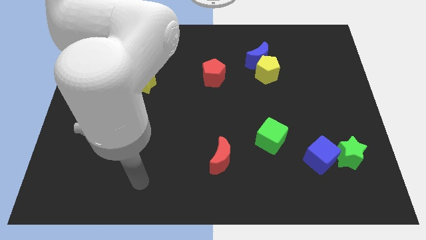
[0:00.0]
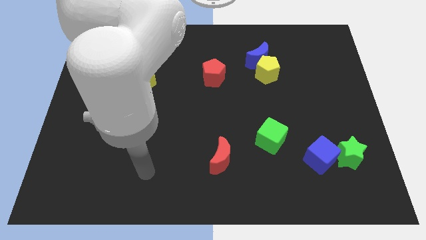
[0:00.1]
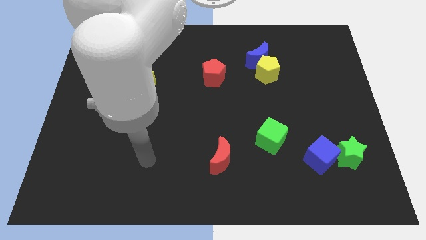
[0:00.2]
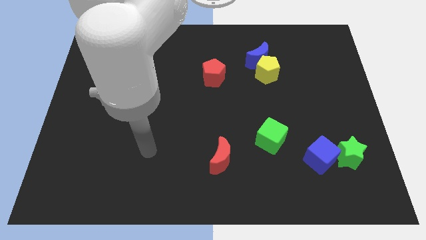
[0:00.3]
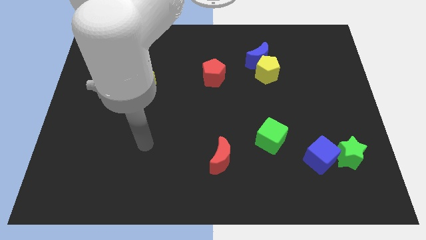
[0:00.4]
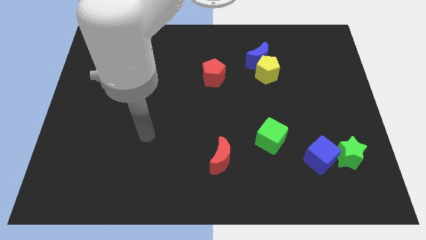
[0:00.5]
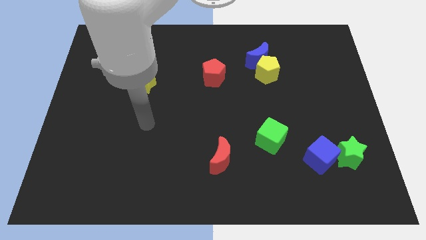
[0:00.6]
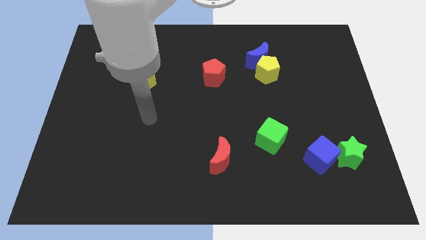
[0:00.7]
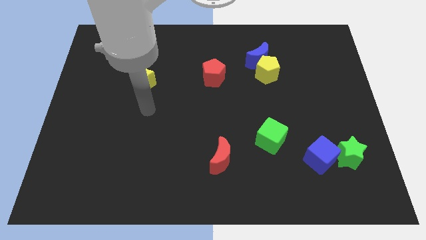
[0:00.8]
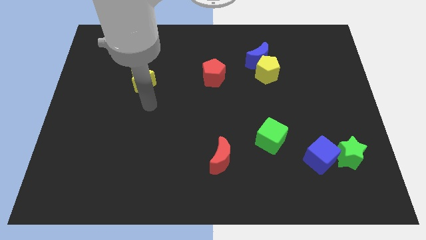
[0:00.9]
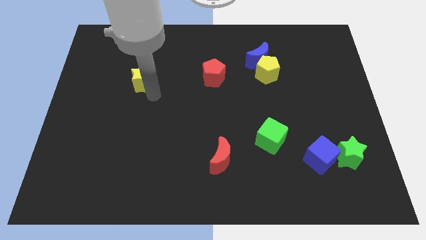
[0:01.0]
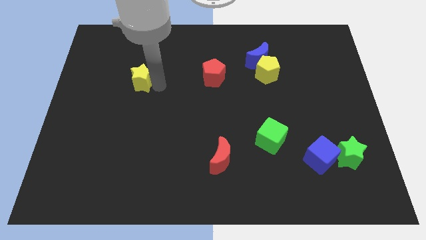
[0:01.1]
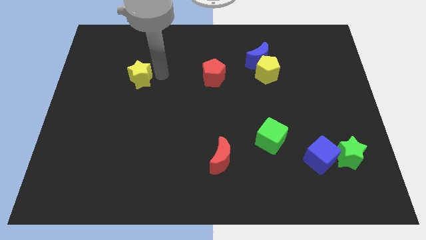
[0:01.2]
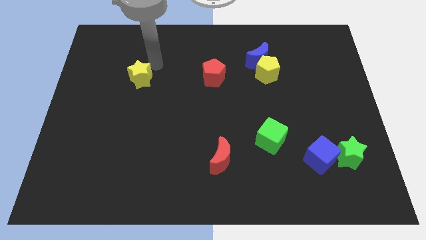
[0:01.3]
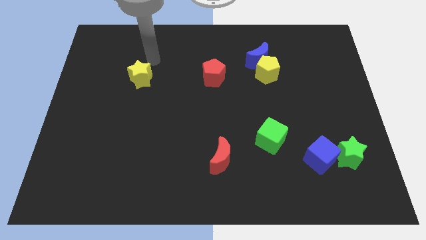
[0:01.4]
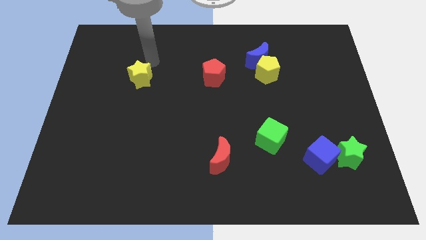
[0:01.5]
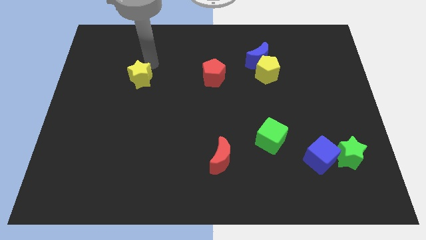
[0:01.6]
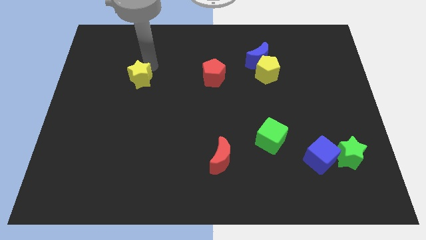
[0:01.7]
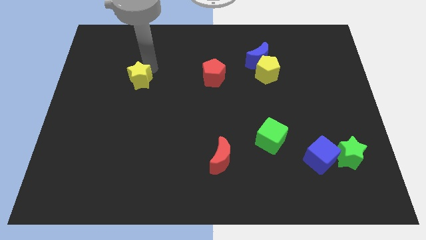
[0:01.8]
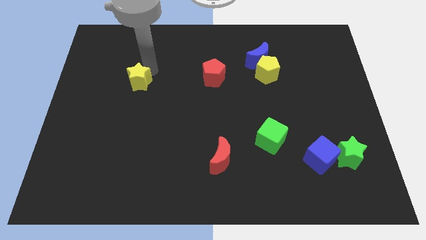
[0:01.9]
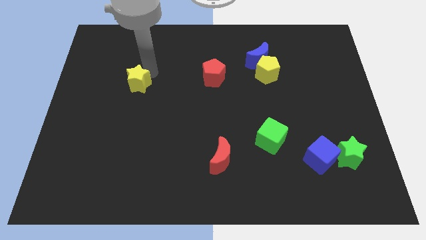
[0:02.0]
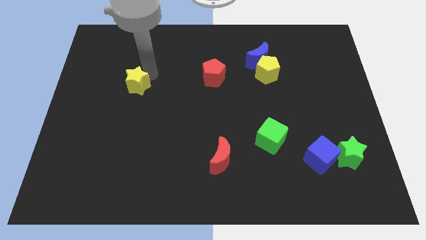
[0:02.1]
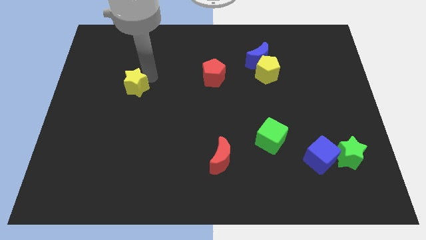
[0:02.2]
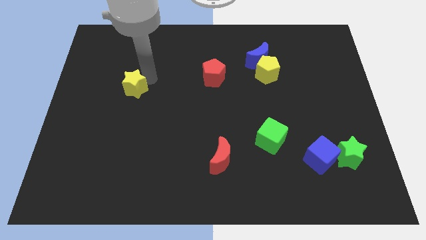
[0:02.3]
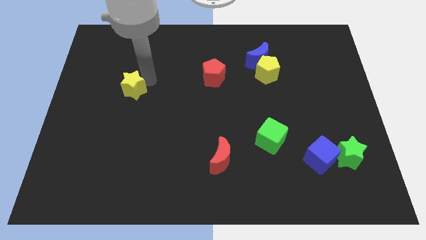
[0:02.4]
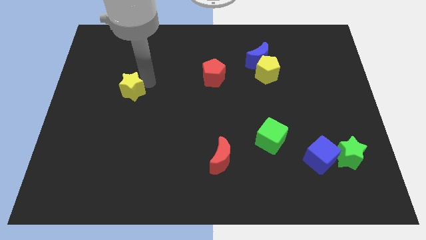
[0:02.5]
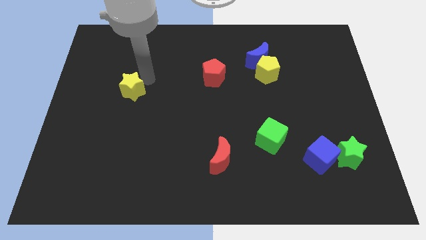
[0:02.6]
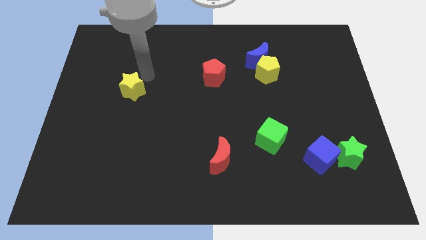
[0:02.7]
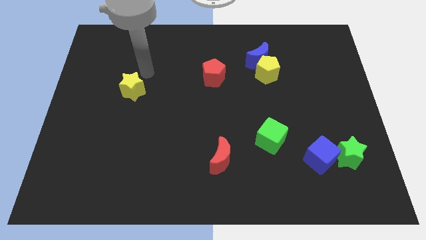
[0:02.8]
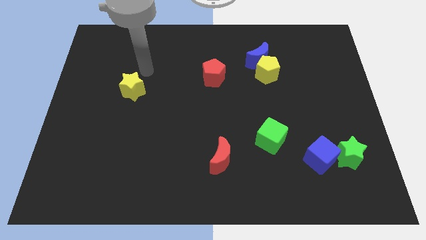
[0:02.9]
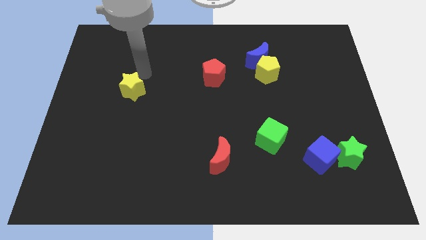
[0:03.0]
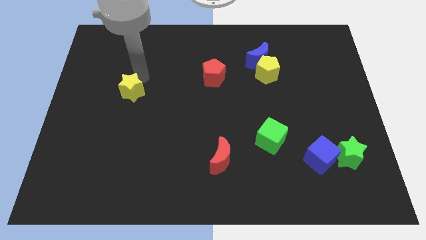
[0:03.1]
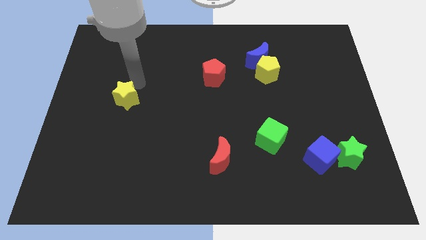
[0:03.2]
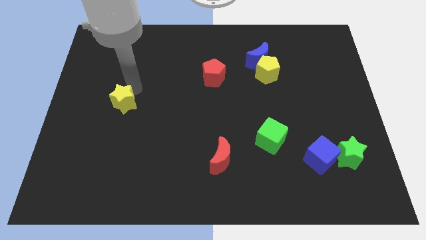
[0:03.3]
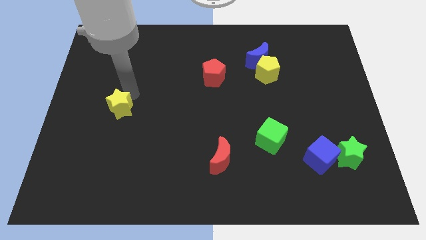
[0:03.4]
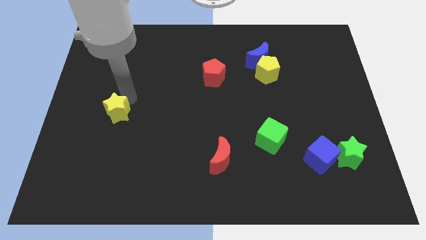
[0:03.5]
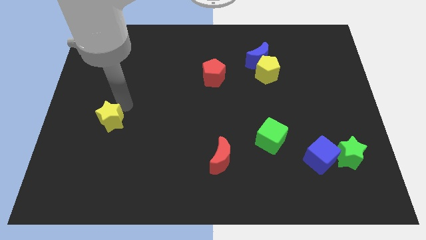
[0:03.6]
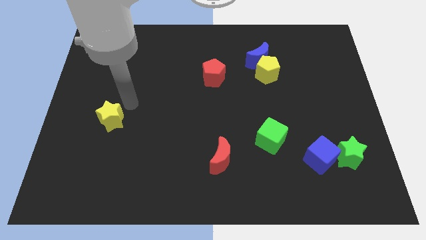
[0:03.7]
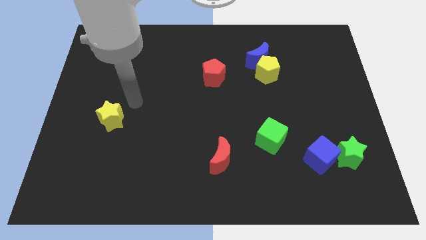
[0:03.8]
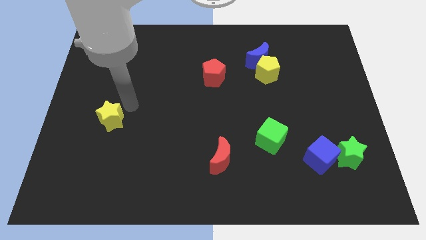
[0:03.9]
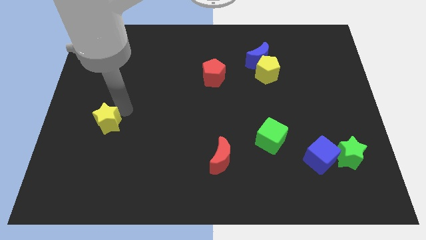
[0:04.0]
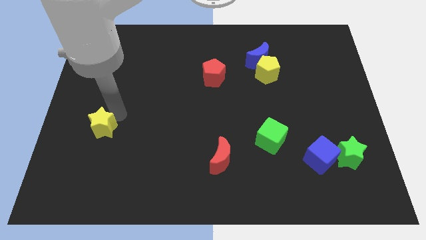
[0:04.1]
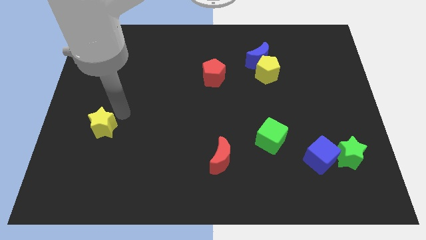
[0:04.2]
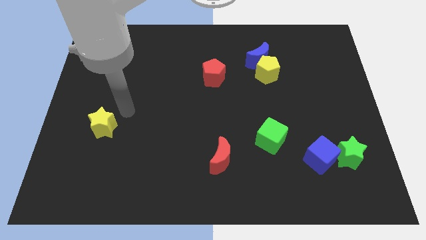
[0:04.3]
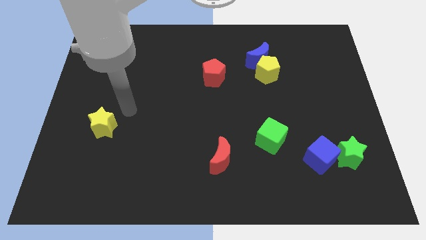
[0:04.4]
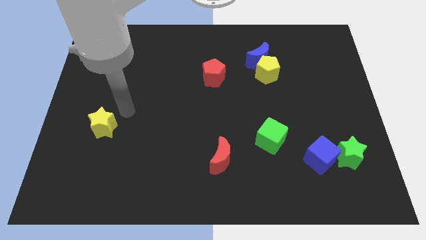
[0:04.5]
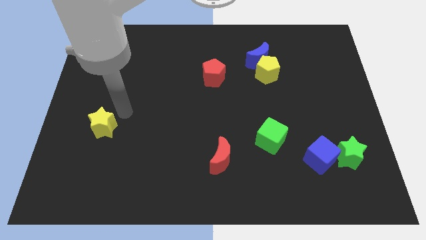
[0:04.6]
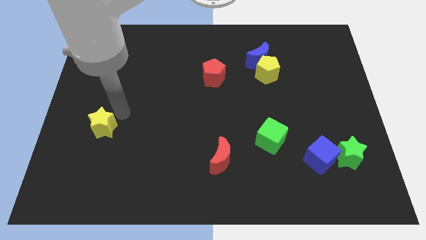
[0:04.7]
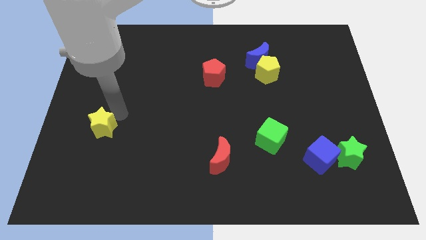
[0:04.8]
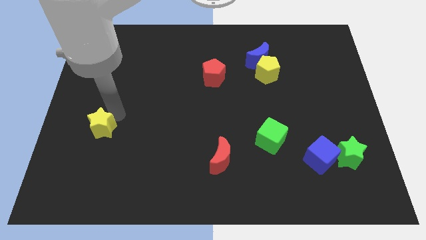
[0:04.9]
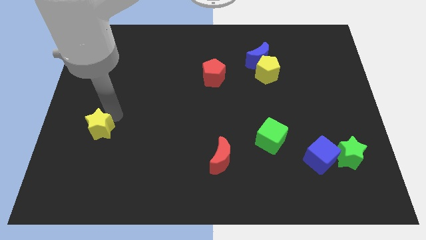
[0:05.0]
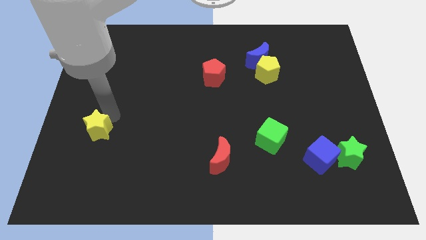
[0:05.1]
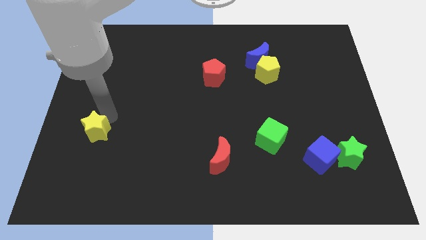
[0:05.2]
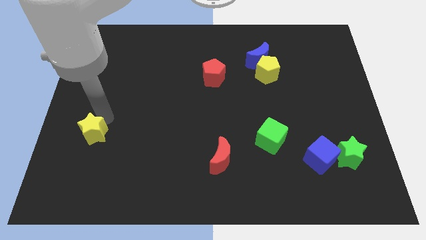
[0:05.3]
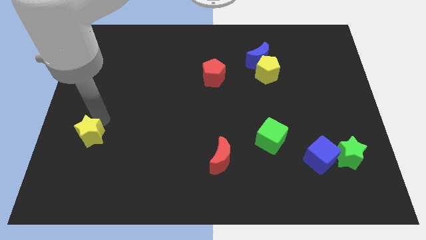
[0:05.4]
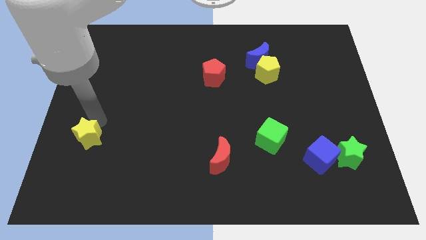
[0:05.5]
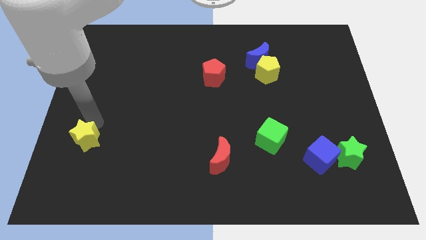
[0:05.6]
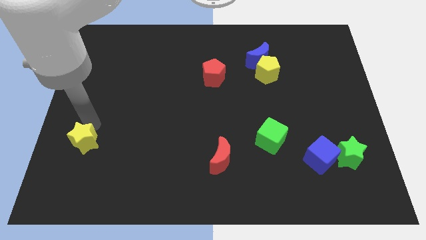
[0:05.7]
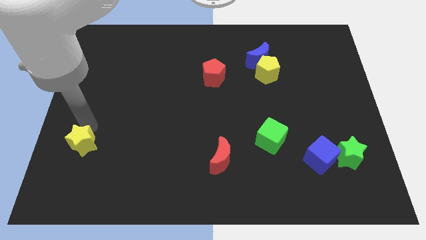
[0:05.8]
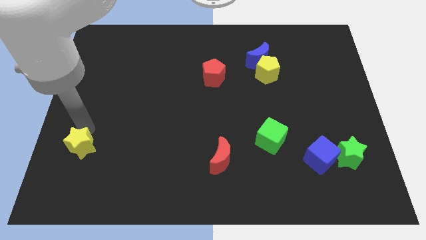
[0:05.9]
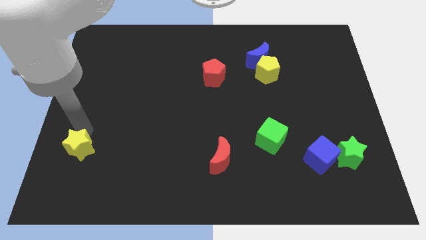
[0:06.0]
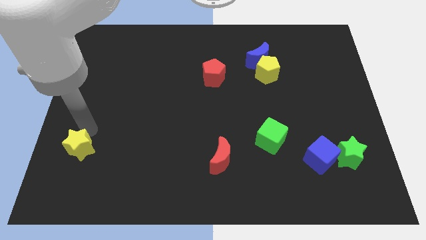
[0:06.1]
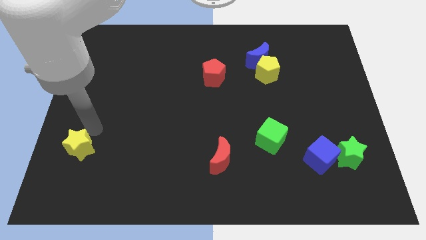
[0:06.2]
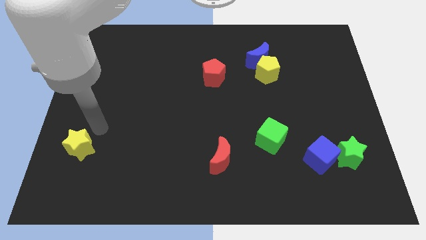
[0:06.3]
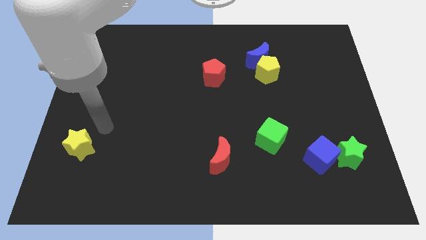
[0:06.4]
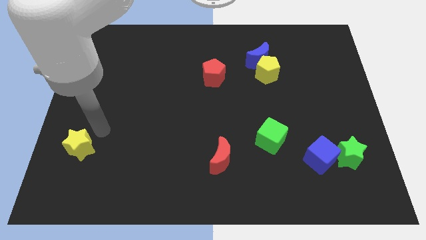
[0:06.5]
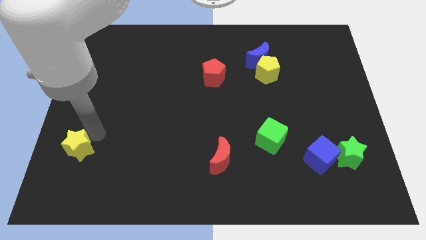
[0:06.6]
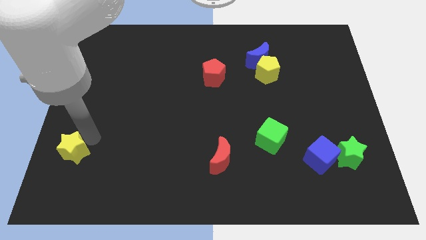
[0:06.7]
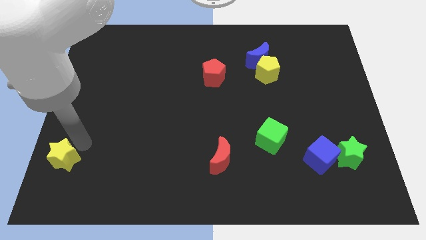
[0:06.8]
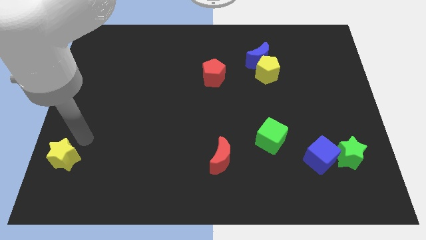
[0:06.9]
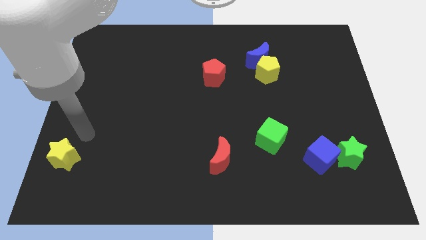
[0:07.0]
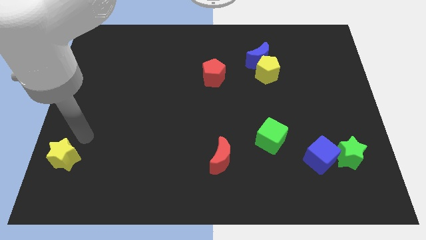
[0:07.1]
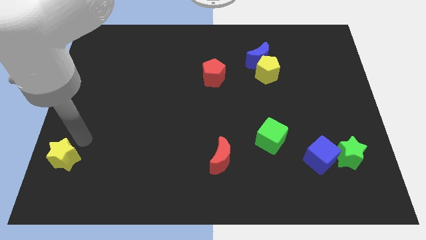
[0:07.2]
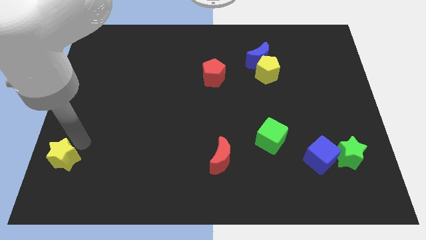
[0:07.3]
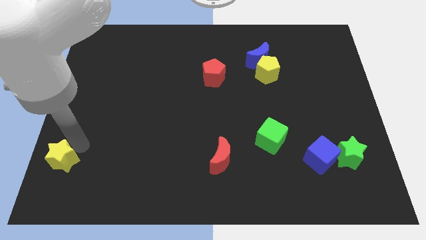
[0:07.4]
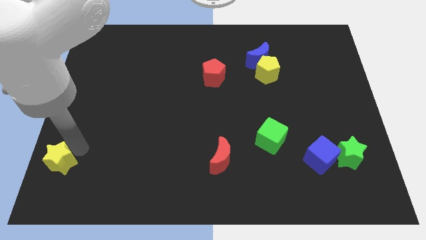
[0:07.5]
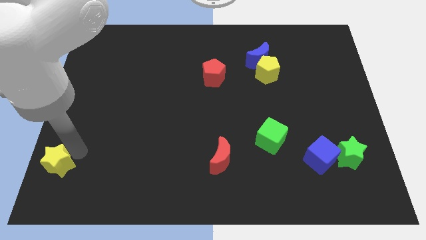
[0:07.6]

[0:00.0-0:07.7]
push the yellow star to the lower left corner
